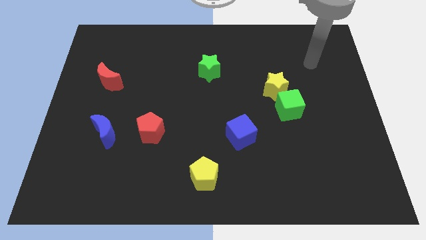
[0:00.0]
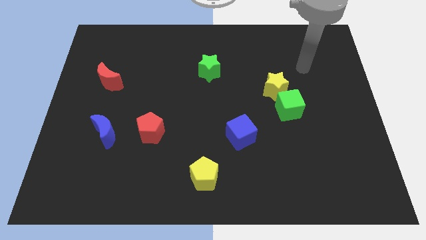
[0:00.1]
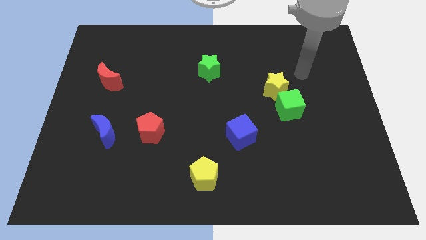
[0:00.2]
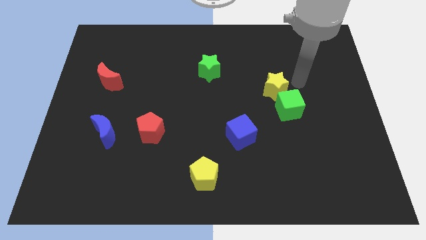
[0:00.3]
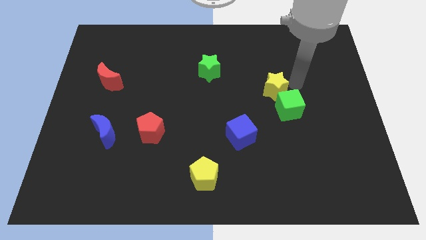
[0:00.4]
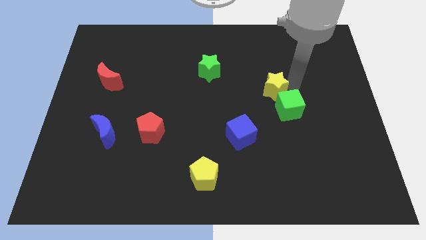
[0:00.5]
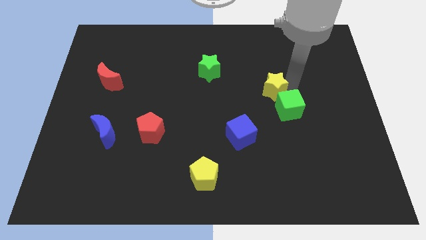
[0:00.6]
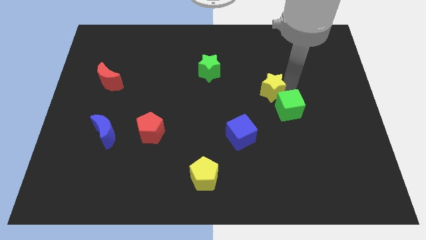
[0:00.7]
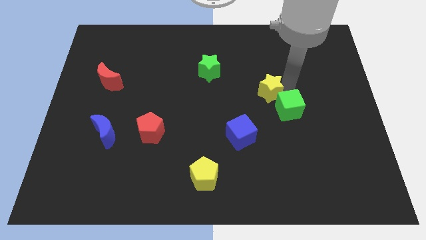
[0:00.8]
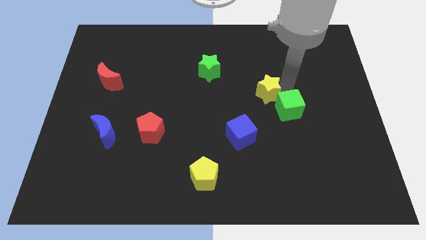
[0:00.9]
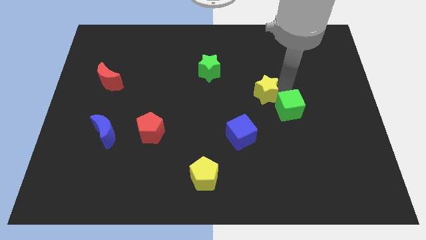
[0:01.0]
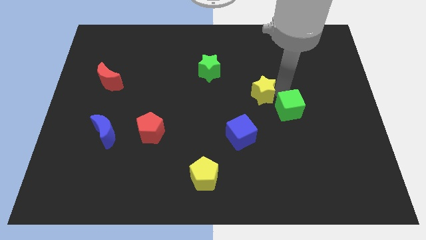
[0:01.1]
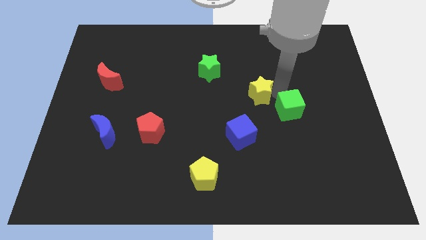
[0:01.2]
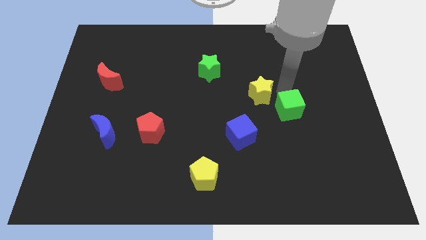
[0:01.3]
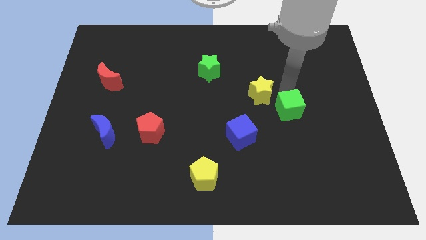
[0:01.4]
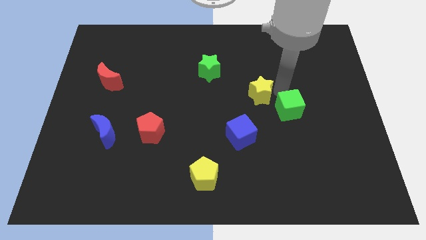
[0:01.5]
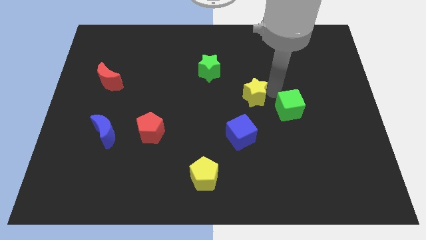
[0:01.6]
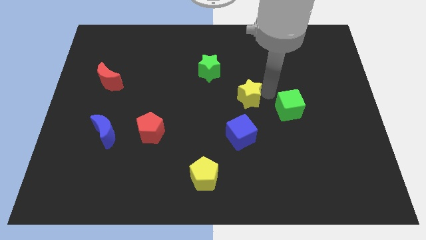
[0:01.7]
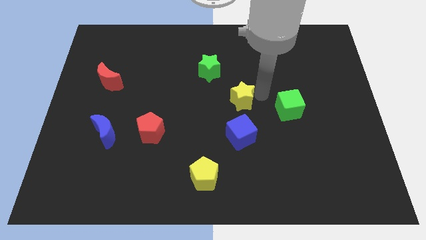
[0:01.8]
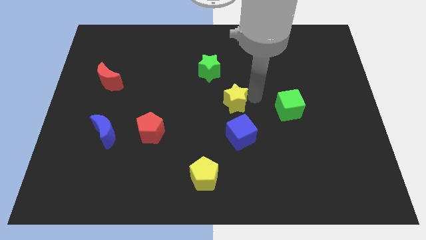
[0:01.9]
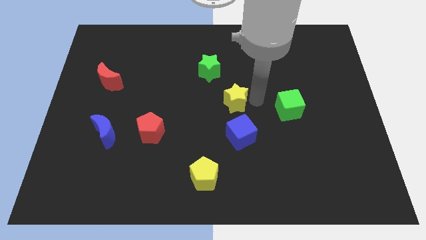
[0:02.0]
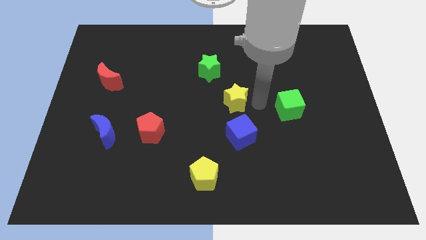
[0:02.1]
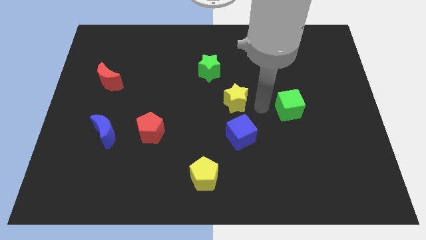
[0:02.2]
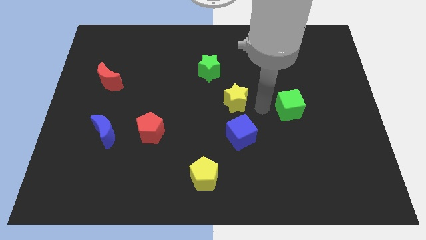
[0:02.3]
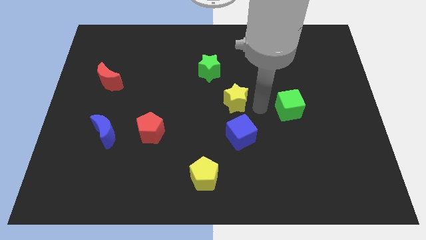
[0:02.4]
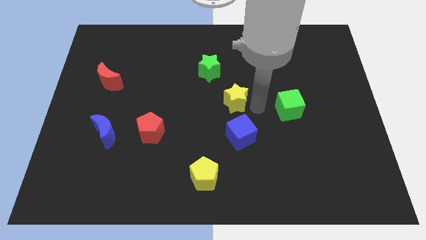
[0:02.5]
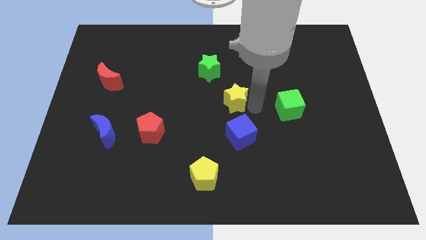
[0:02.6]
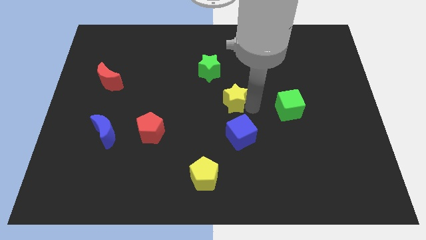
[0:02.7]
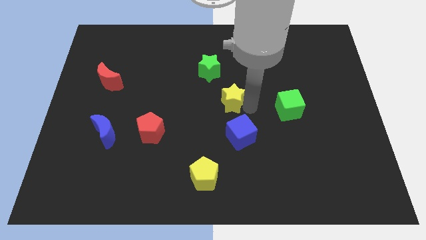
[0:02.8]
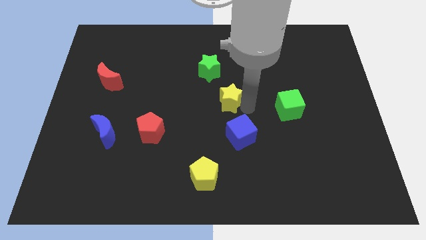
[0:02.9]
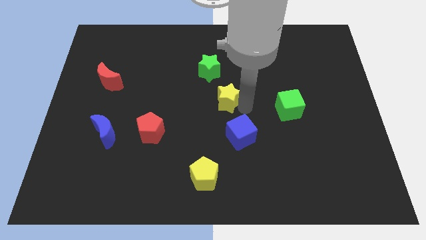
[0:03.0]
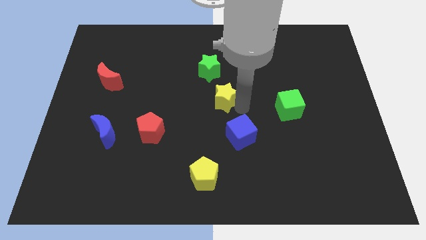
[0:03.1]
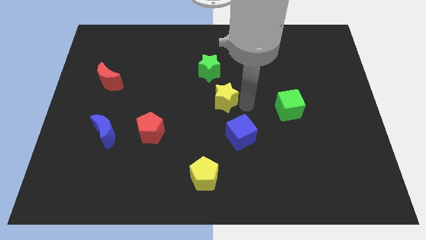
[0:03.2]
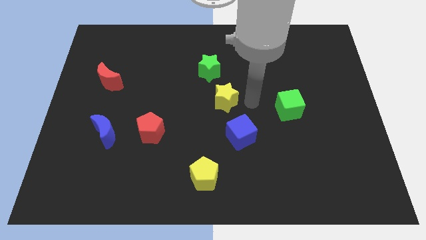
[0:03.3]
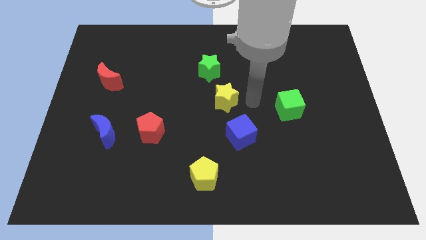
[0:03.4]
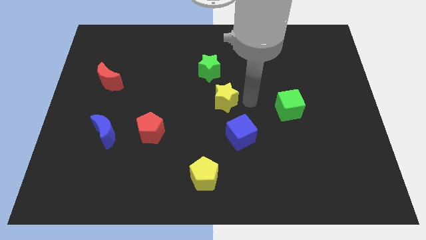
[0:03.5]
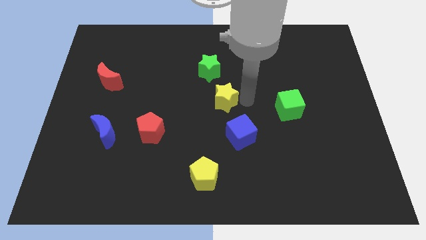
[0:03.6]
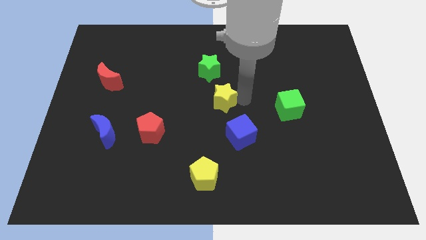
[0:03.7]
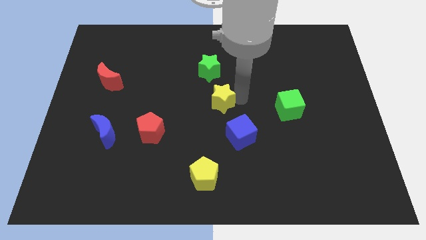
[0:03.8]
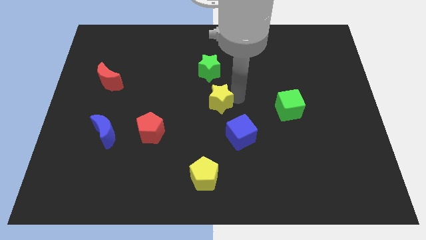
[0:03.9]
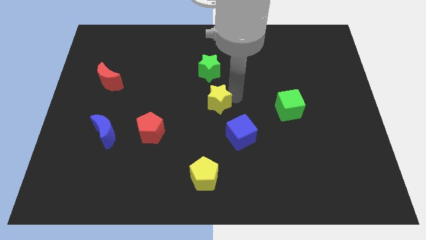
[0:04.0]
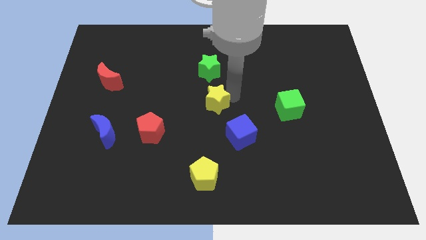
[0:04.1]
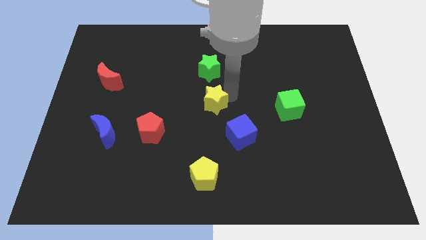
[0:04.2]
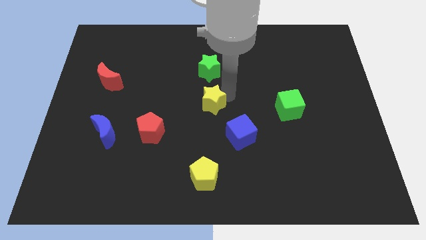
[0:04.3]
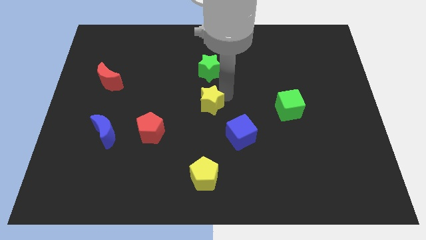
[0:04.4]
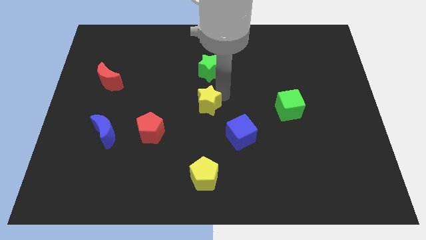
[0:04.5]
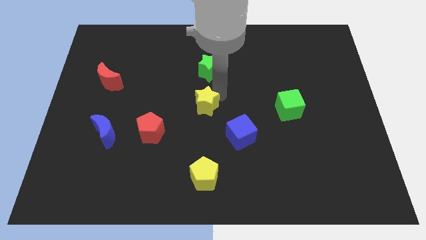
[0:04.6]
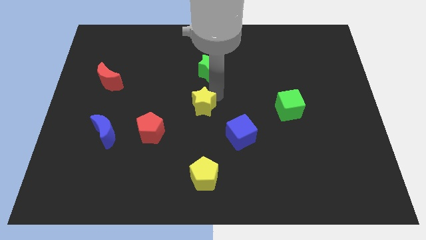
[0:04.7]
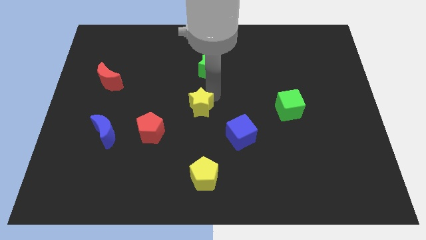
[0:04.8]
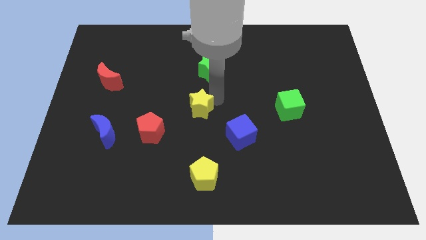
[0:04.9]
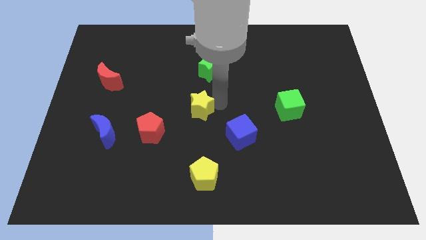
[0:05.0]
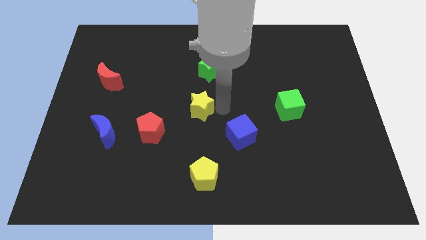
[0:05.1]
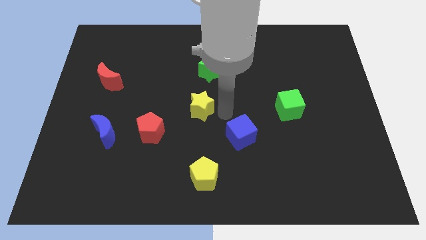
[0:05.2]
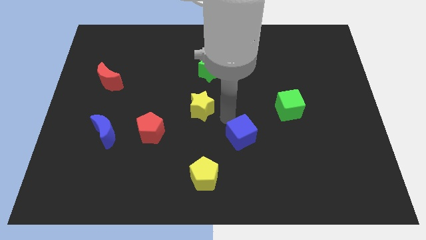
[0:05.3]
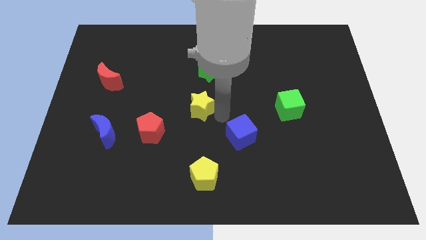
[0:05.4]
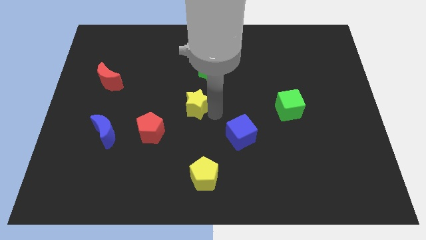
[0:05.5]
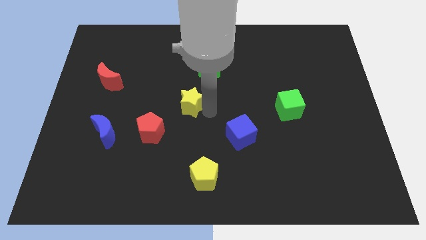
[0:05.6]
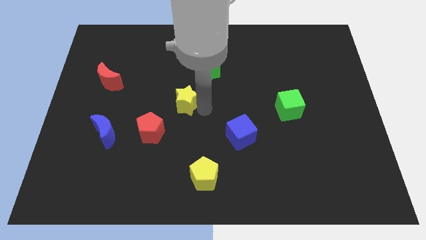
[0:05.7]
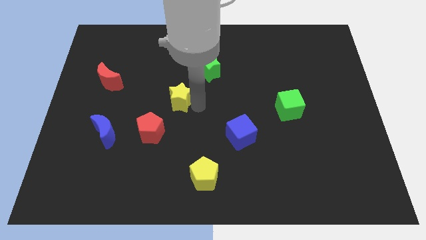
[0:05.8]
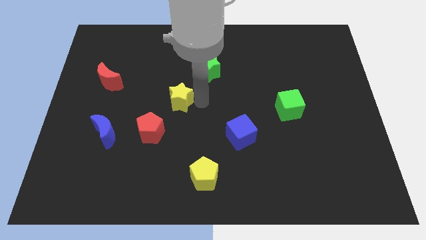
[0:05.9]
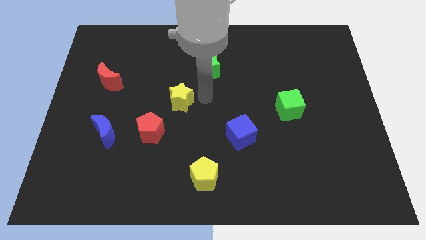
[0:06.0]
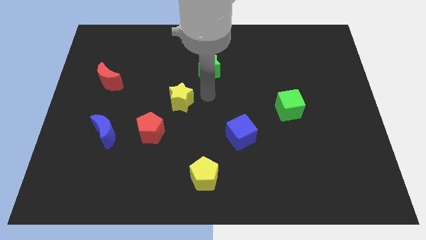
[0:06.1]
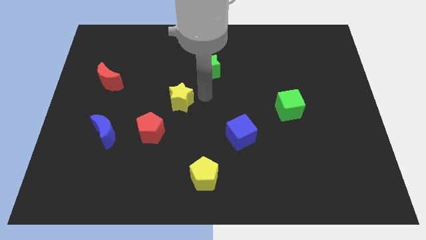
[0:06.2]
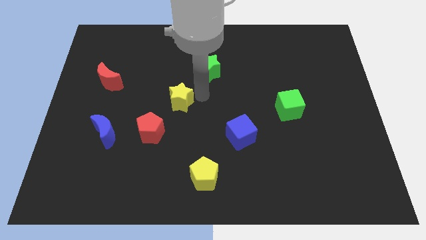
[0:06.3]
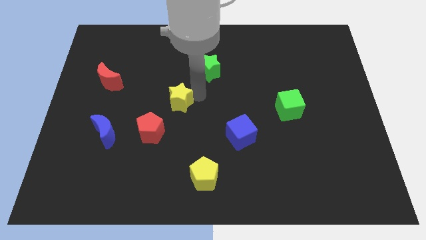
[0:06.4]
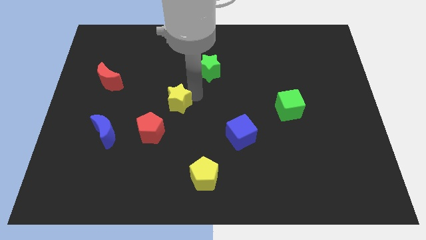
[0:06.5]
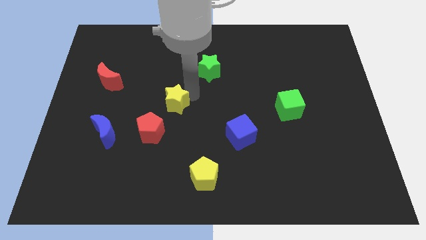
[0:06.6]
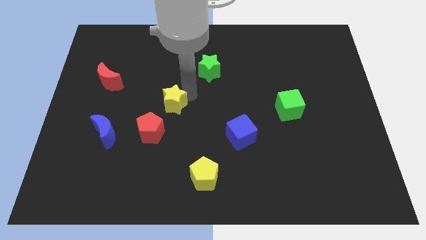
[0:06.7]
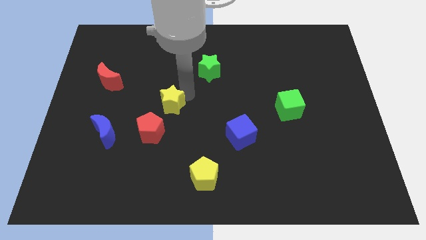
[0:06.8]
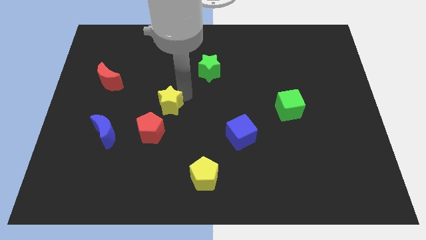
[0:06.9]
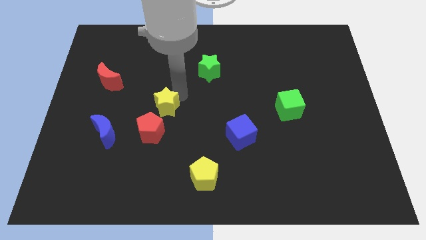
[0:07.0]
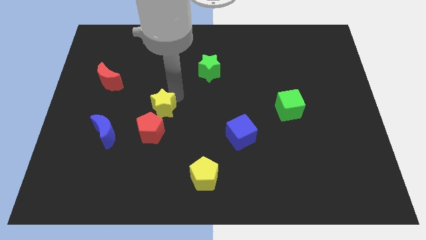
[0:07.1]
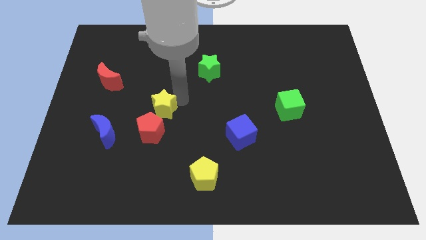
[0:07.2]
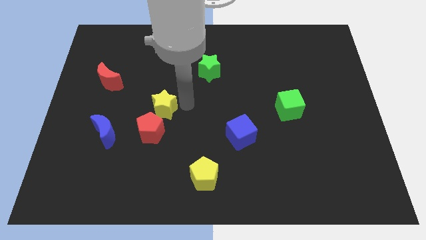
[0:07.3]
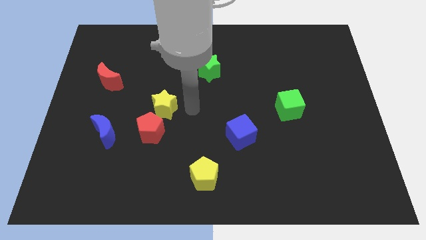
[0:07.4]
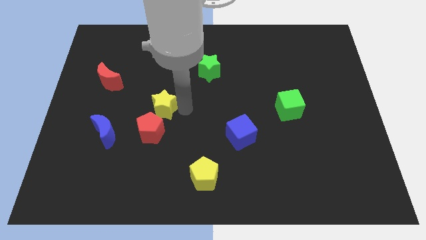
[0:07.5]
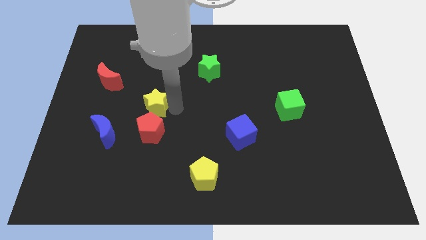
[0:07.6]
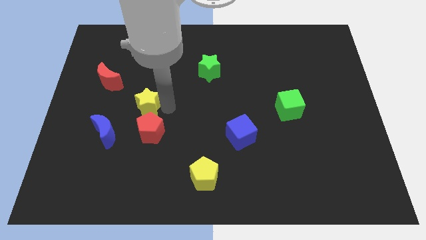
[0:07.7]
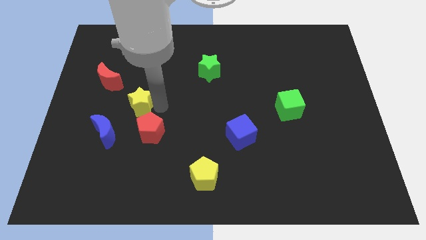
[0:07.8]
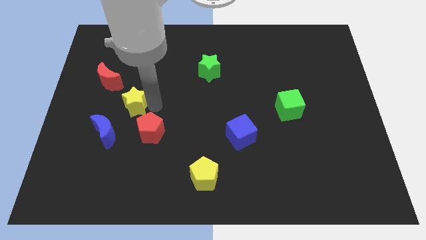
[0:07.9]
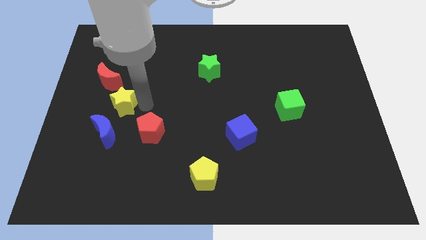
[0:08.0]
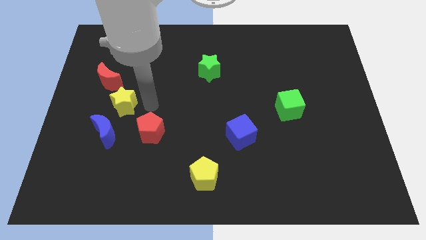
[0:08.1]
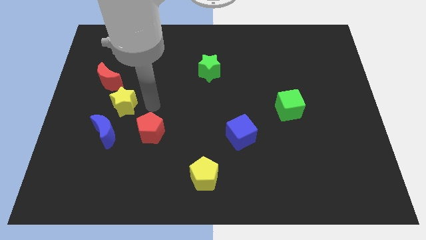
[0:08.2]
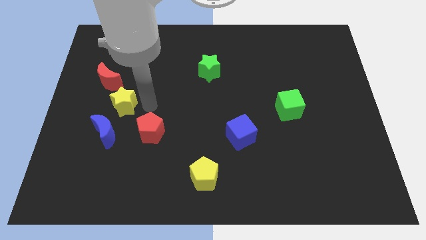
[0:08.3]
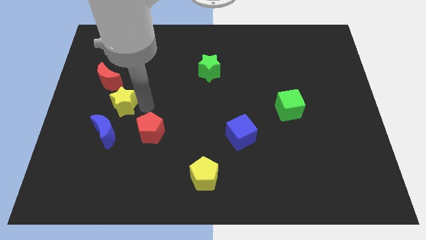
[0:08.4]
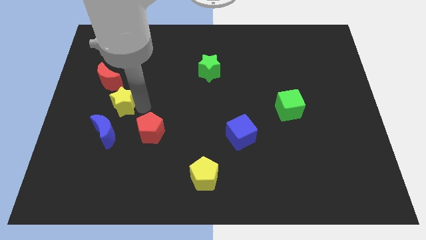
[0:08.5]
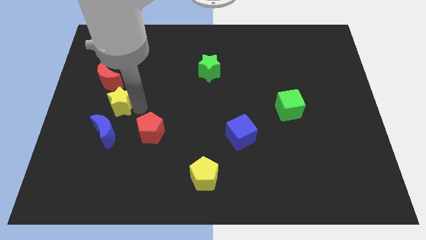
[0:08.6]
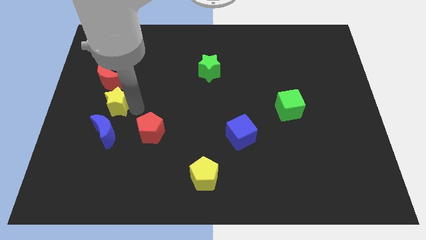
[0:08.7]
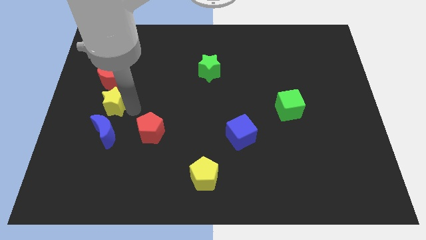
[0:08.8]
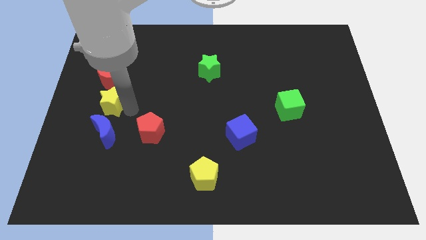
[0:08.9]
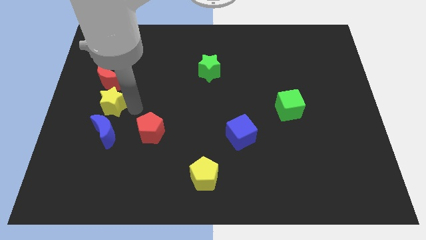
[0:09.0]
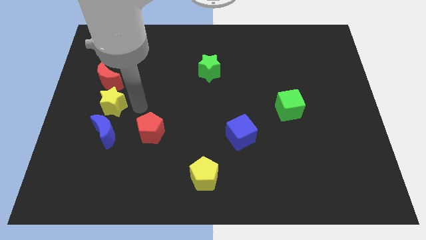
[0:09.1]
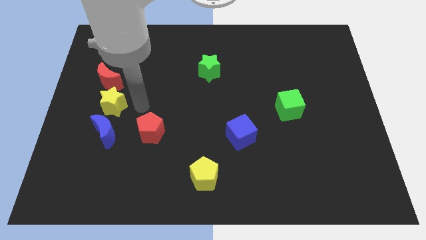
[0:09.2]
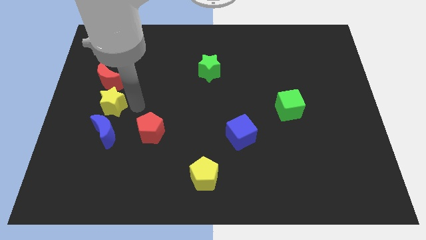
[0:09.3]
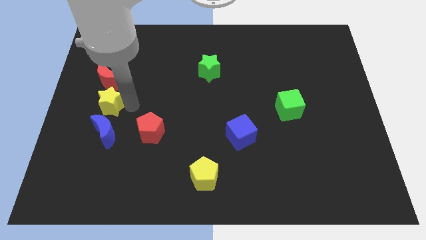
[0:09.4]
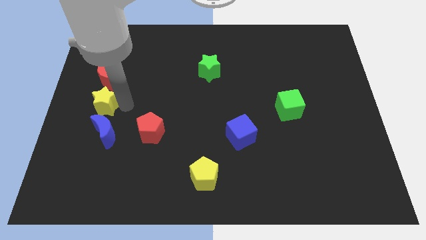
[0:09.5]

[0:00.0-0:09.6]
put the yellow star to the left side of the board
